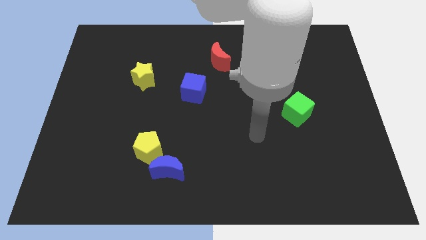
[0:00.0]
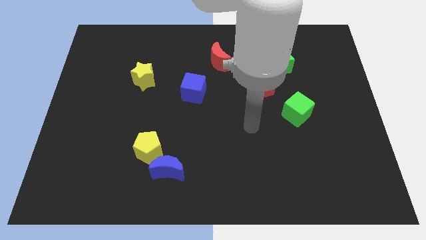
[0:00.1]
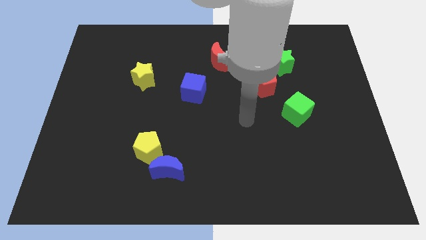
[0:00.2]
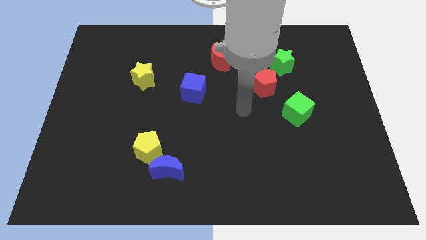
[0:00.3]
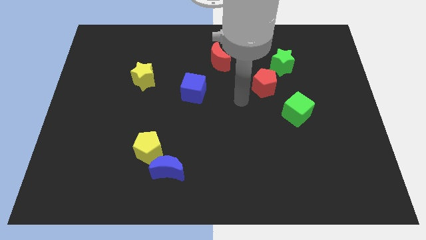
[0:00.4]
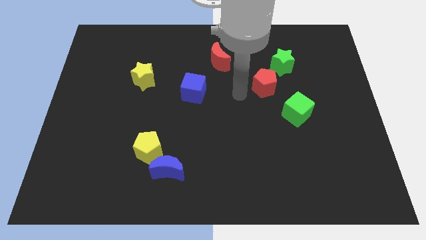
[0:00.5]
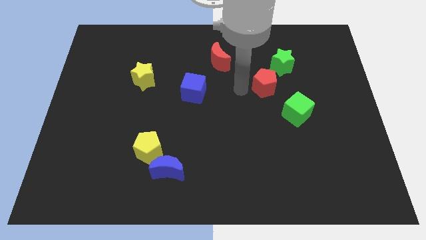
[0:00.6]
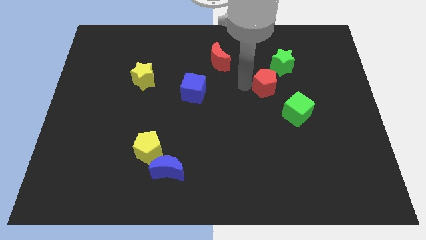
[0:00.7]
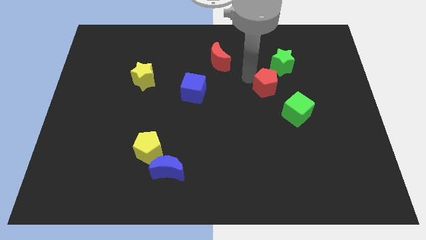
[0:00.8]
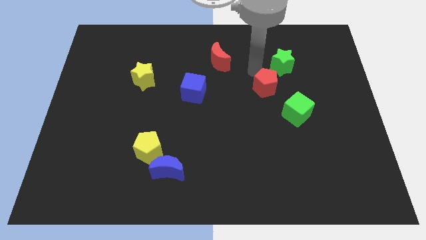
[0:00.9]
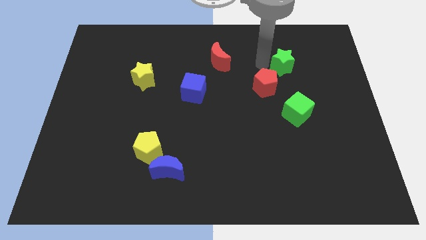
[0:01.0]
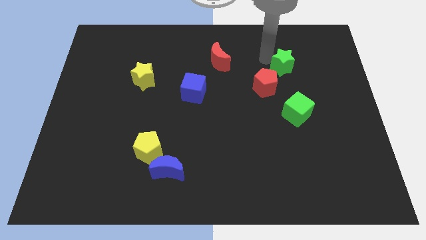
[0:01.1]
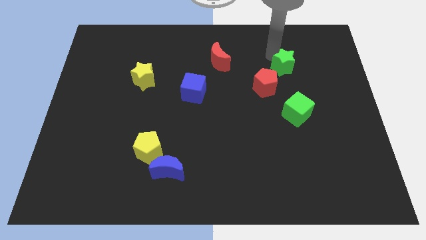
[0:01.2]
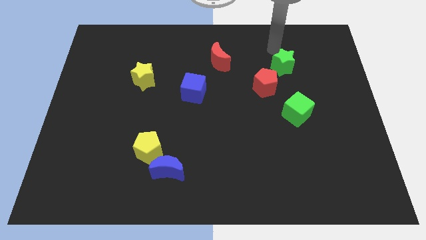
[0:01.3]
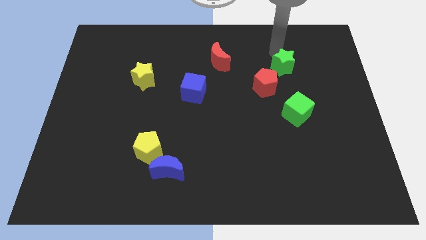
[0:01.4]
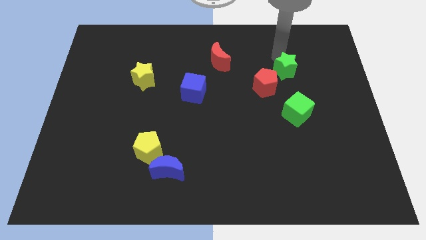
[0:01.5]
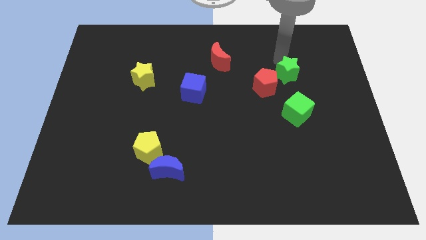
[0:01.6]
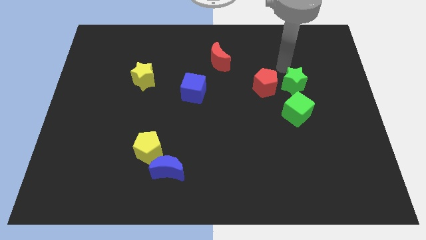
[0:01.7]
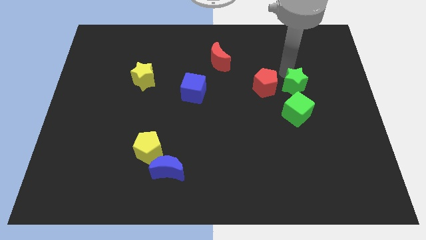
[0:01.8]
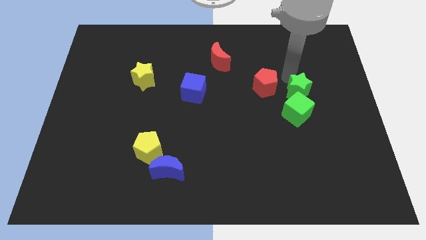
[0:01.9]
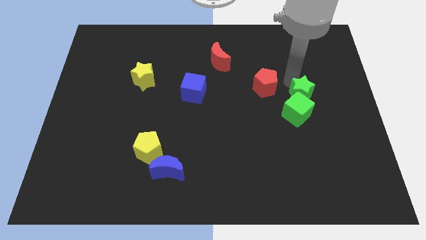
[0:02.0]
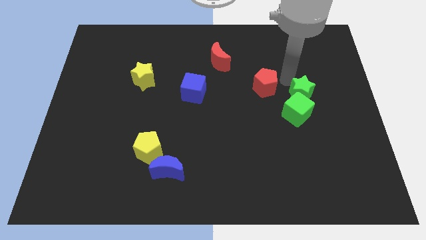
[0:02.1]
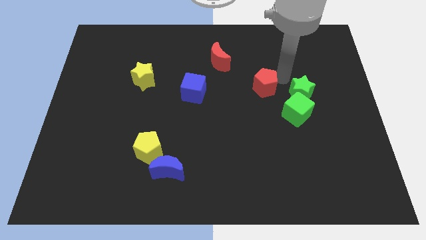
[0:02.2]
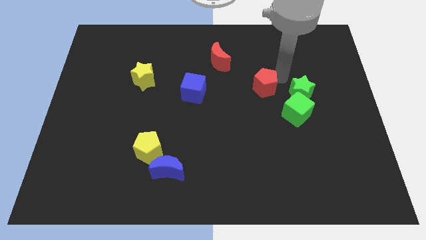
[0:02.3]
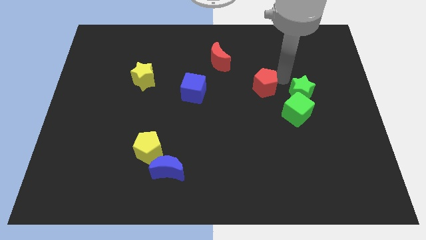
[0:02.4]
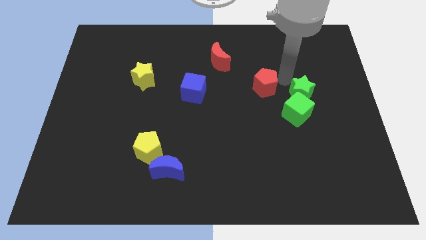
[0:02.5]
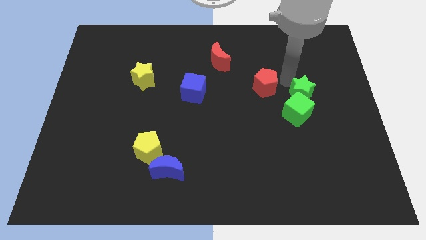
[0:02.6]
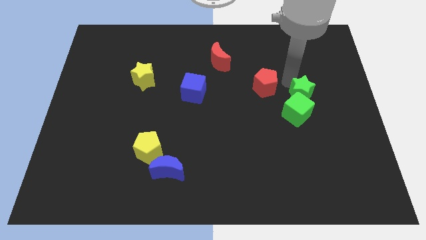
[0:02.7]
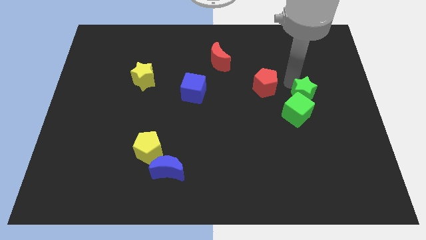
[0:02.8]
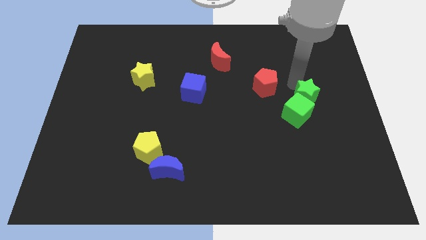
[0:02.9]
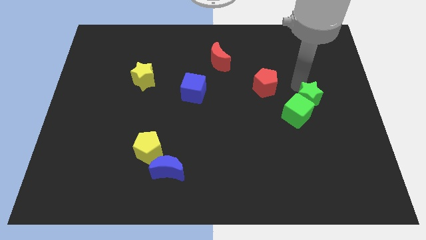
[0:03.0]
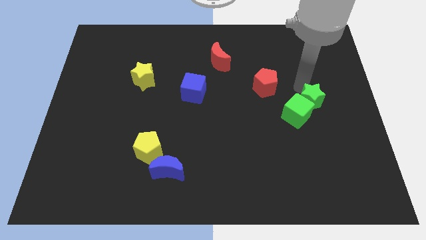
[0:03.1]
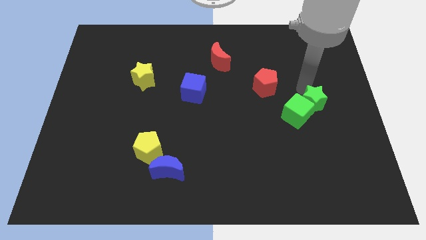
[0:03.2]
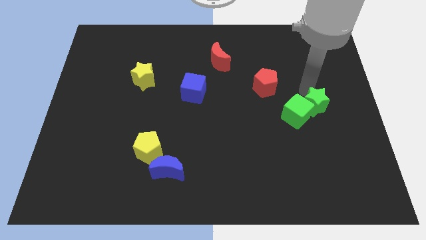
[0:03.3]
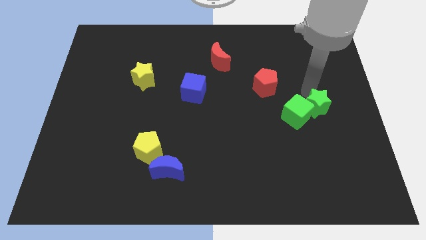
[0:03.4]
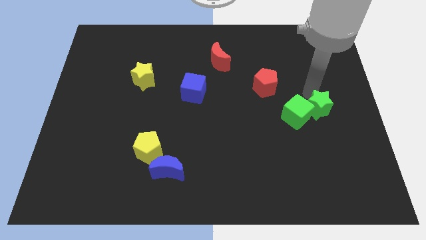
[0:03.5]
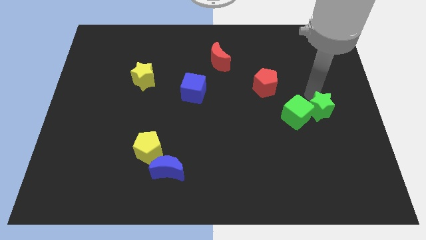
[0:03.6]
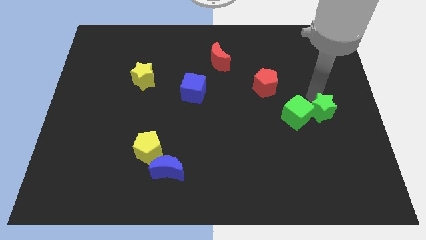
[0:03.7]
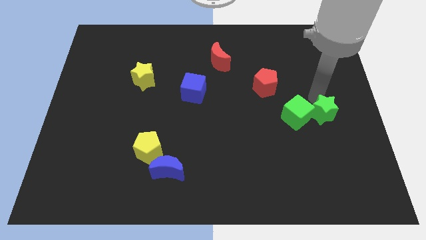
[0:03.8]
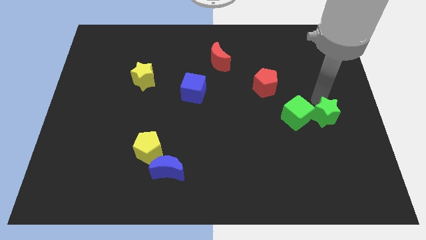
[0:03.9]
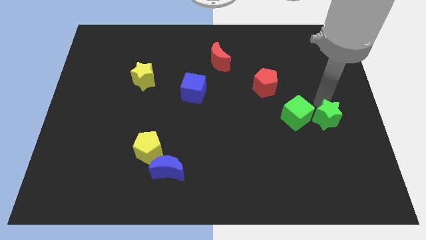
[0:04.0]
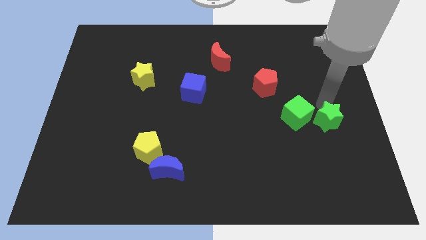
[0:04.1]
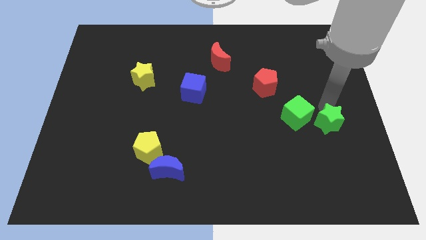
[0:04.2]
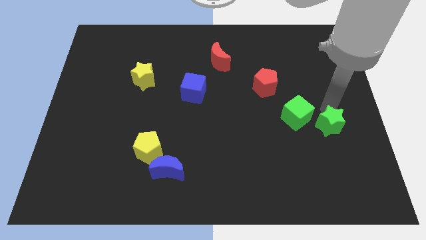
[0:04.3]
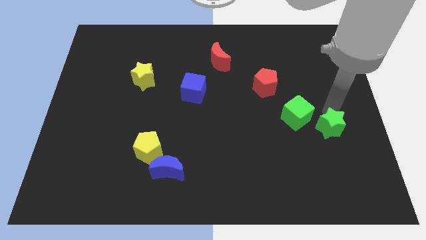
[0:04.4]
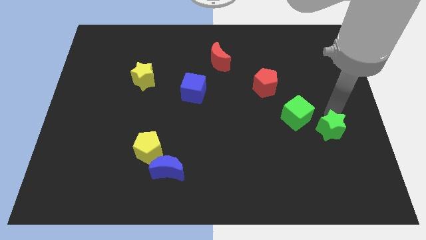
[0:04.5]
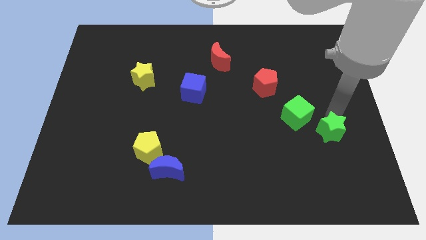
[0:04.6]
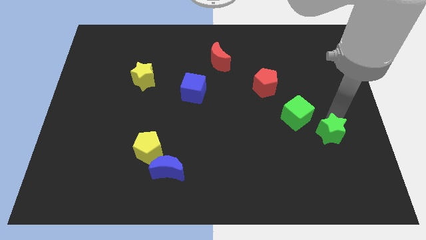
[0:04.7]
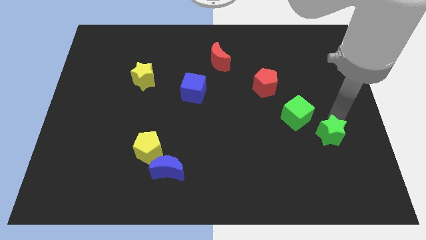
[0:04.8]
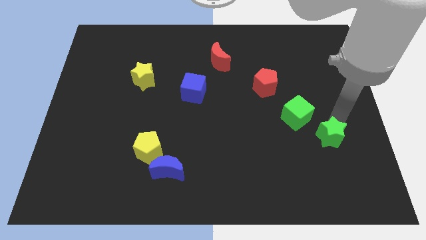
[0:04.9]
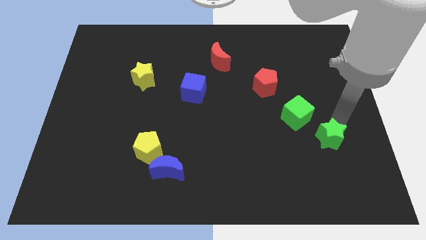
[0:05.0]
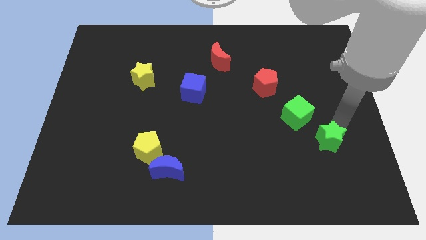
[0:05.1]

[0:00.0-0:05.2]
move the green star downwards

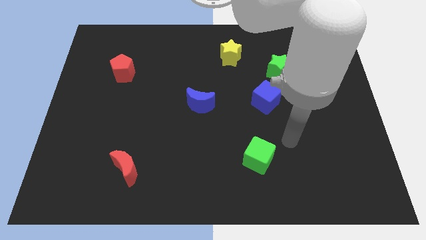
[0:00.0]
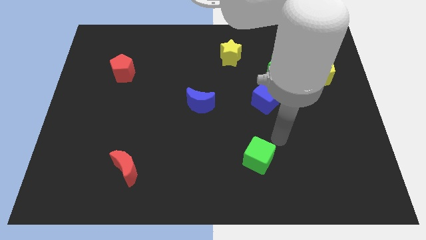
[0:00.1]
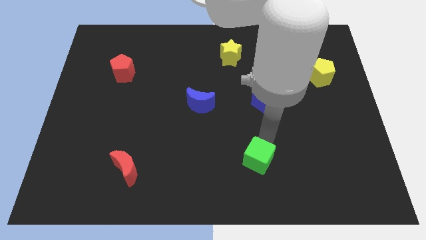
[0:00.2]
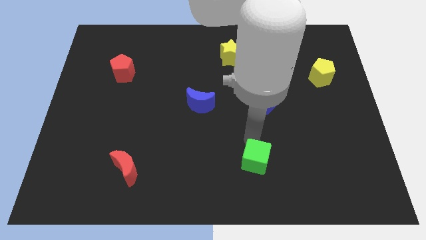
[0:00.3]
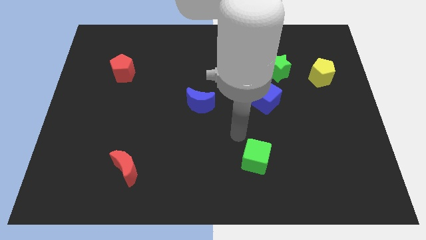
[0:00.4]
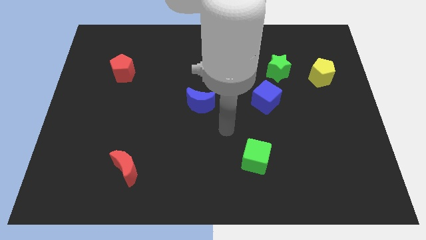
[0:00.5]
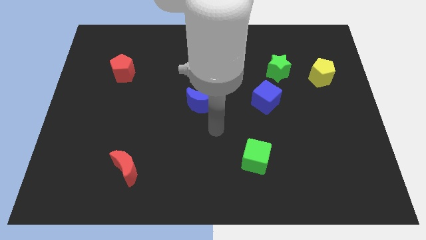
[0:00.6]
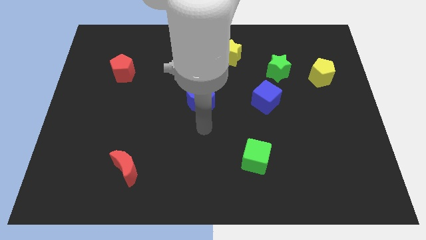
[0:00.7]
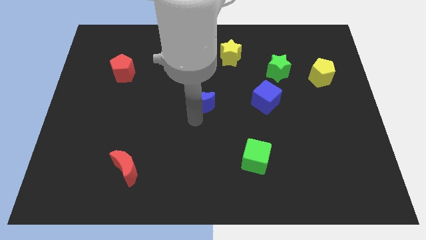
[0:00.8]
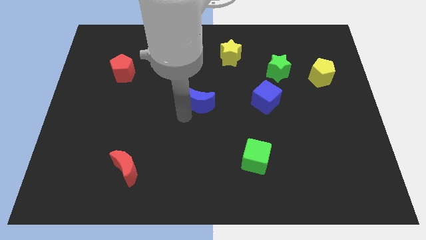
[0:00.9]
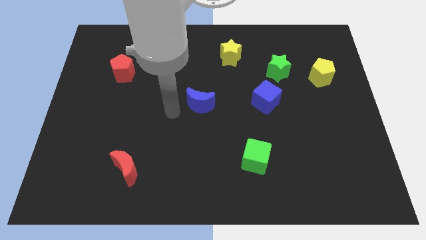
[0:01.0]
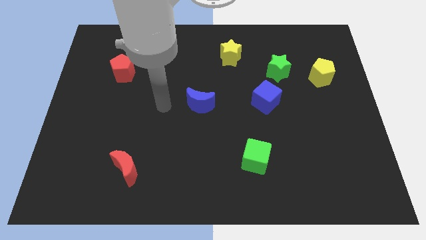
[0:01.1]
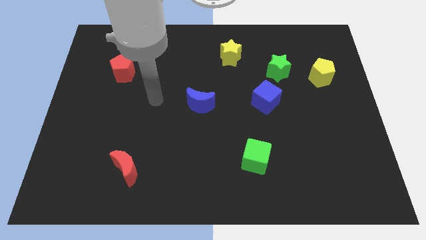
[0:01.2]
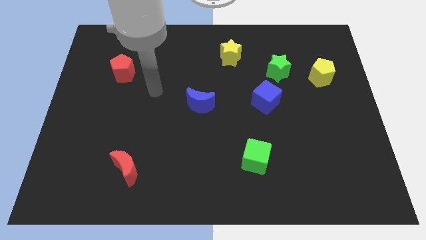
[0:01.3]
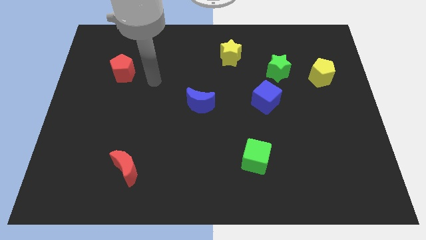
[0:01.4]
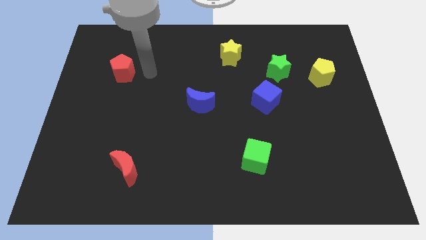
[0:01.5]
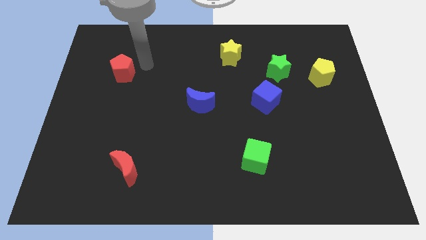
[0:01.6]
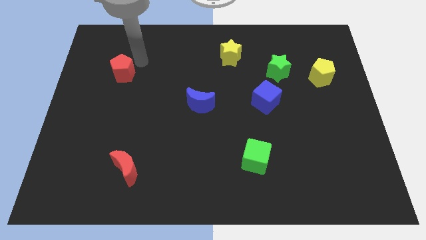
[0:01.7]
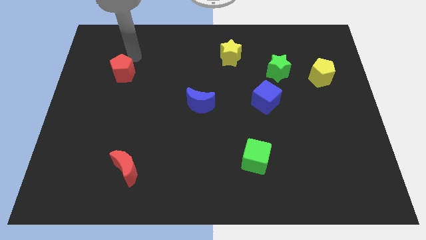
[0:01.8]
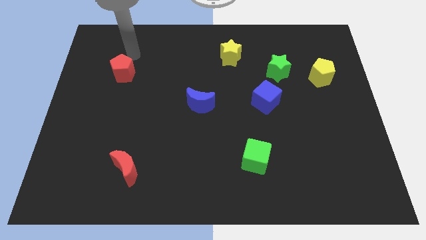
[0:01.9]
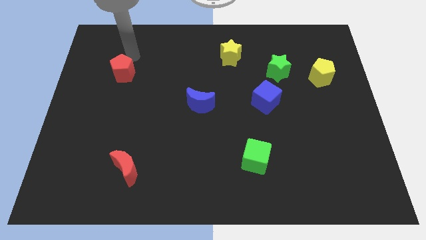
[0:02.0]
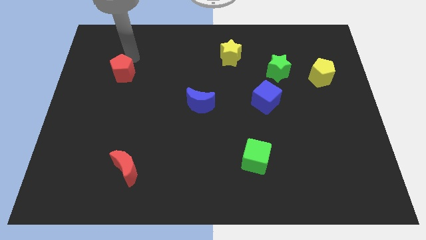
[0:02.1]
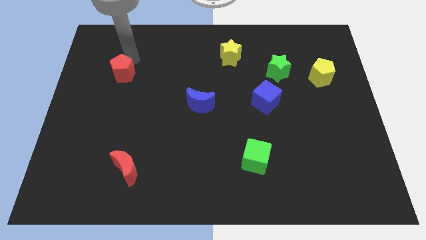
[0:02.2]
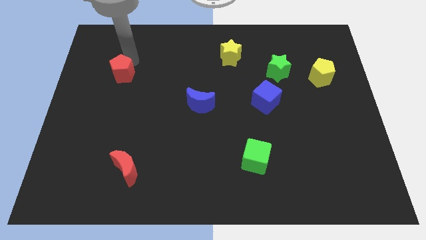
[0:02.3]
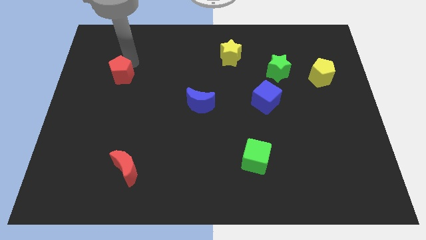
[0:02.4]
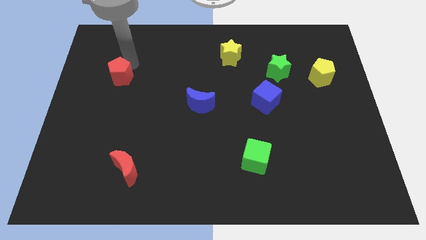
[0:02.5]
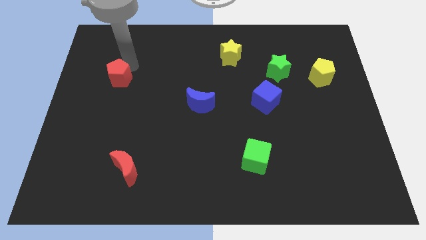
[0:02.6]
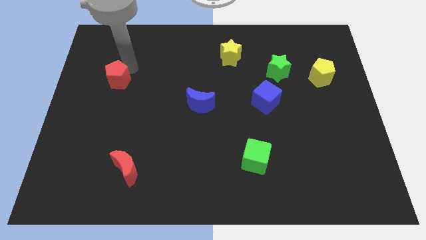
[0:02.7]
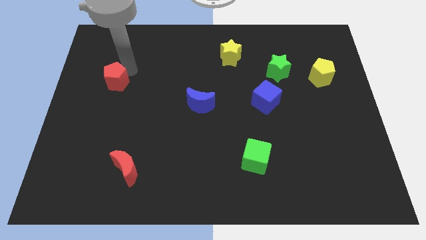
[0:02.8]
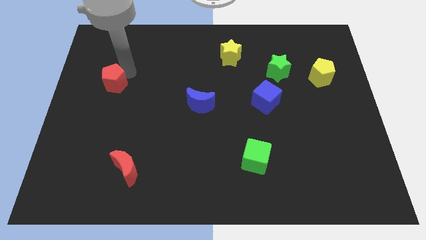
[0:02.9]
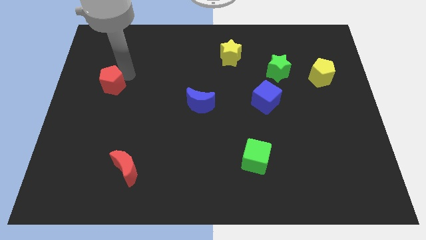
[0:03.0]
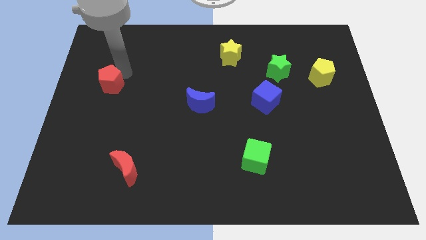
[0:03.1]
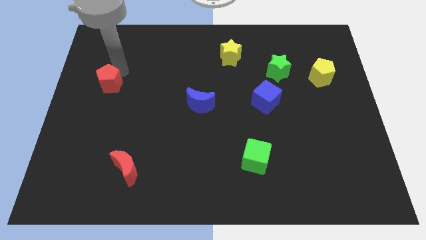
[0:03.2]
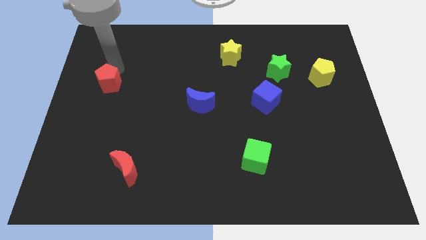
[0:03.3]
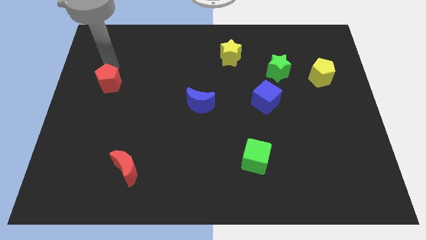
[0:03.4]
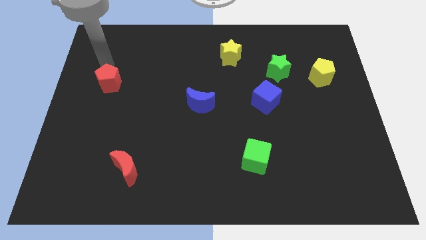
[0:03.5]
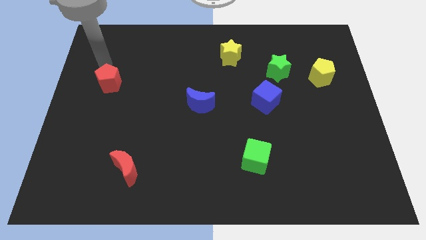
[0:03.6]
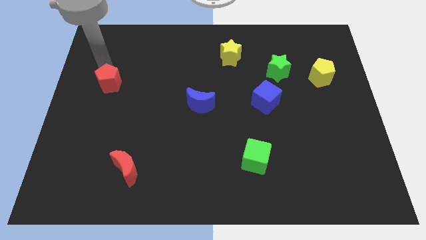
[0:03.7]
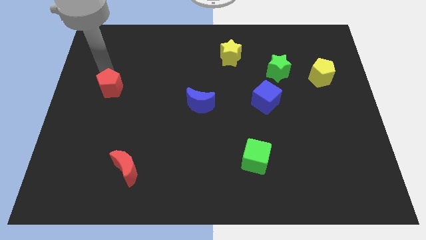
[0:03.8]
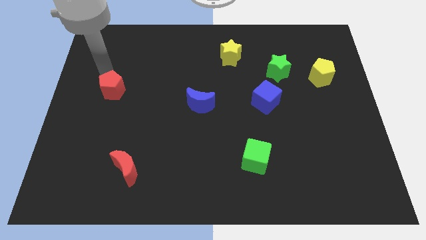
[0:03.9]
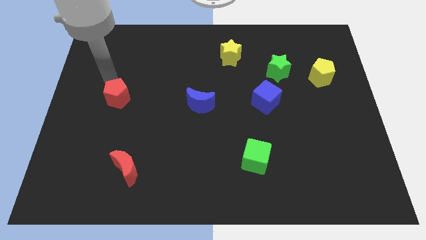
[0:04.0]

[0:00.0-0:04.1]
slide the red pentagon downwards a little bit
